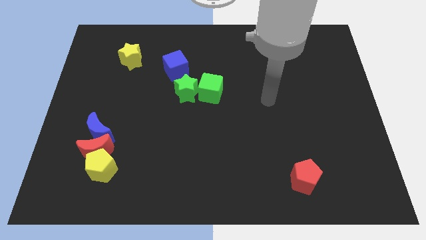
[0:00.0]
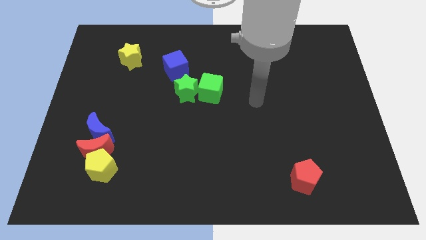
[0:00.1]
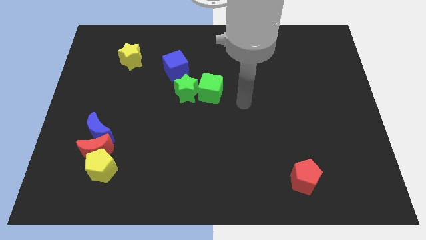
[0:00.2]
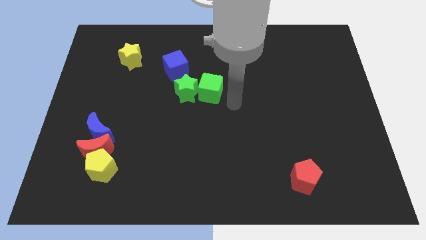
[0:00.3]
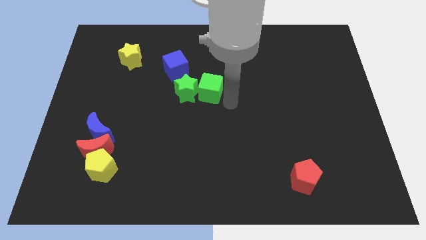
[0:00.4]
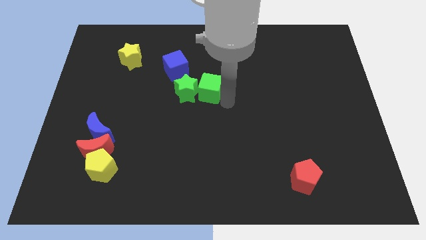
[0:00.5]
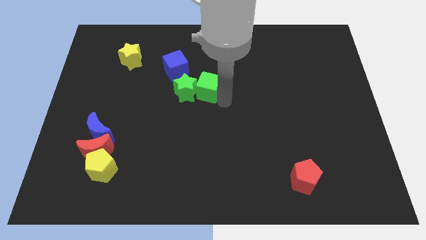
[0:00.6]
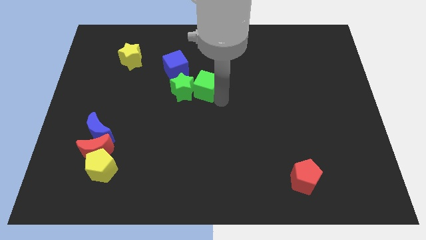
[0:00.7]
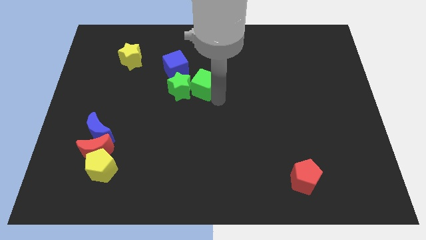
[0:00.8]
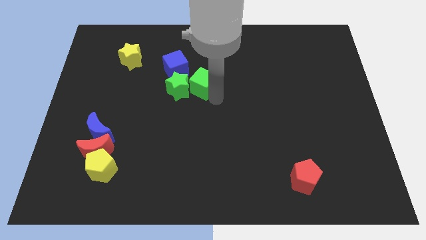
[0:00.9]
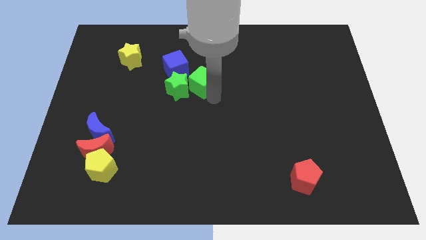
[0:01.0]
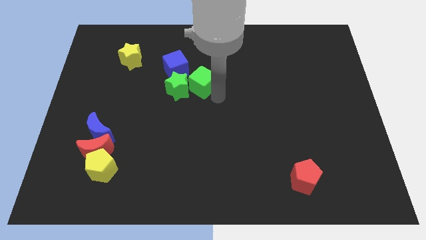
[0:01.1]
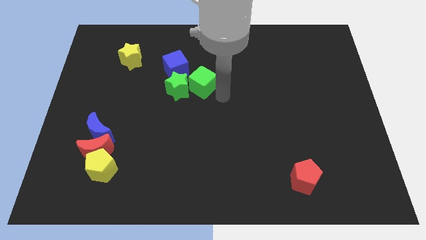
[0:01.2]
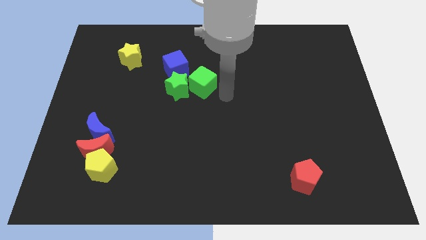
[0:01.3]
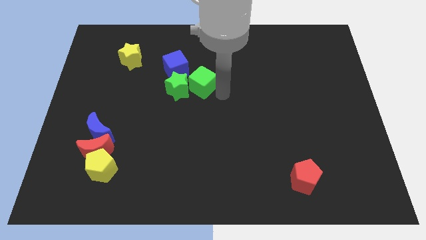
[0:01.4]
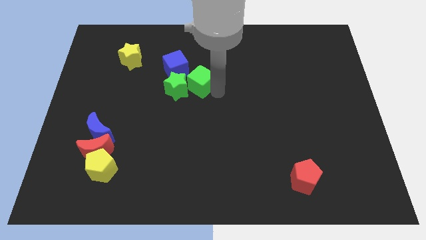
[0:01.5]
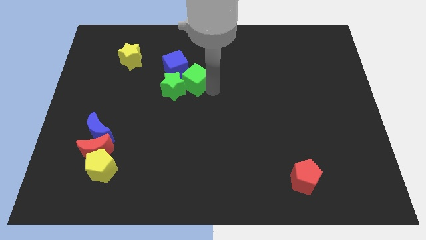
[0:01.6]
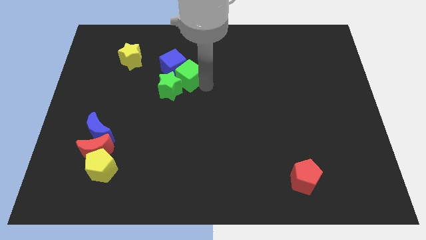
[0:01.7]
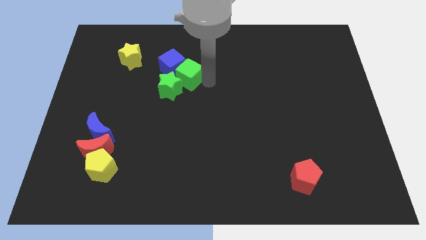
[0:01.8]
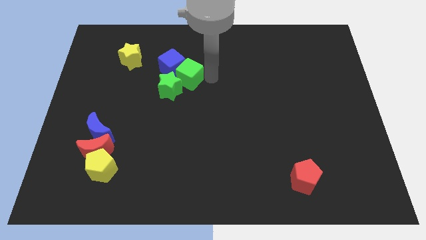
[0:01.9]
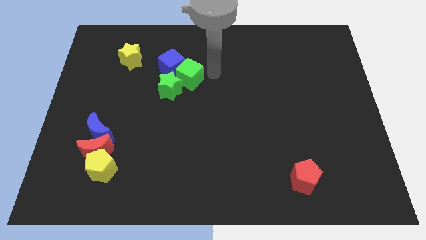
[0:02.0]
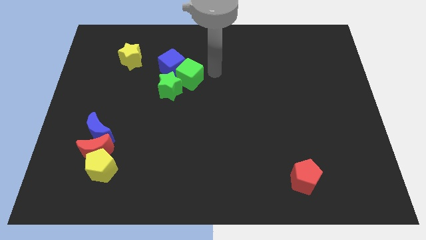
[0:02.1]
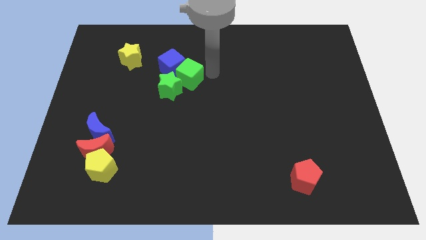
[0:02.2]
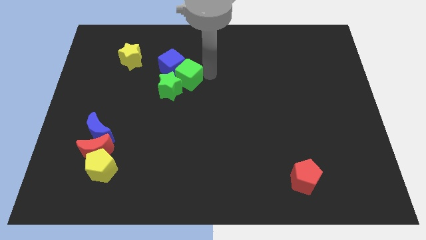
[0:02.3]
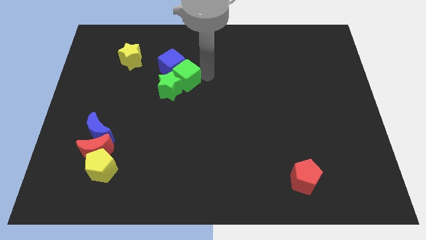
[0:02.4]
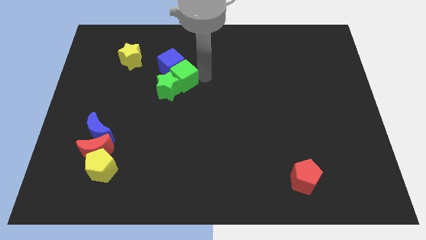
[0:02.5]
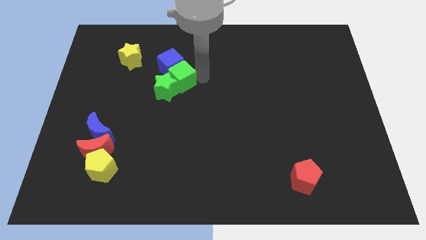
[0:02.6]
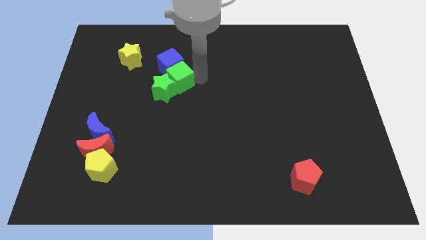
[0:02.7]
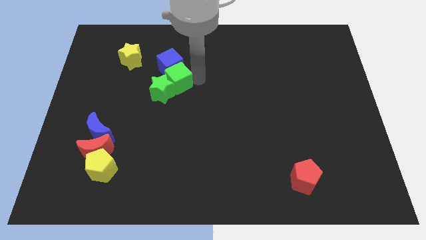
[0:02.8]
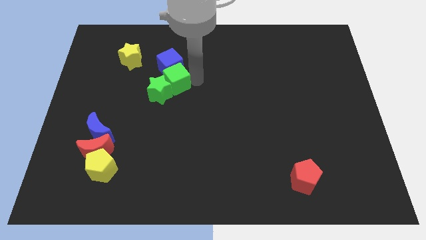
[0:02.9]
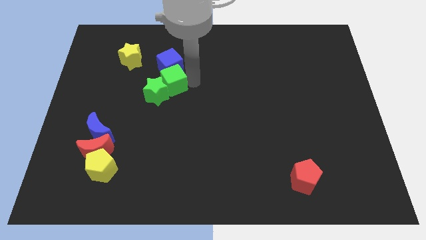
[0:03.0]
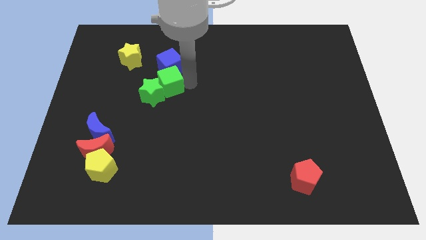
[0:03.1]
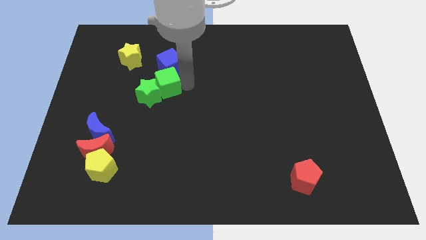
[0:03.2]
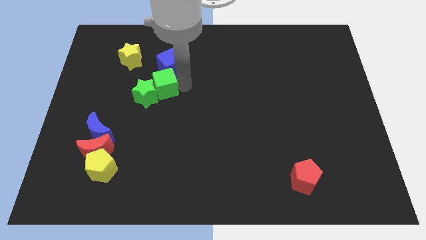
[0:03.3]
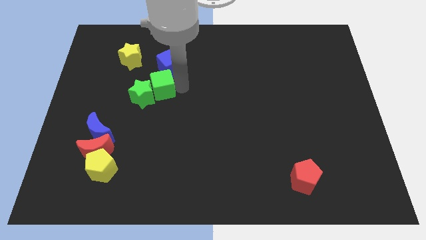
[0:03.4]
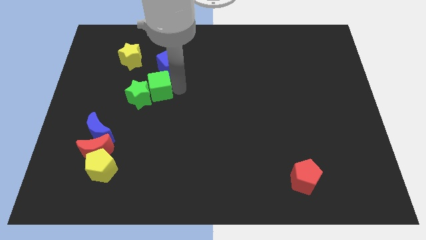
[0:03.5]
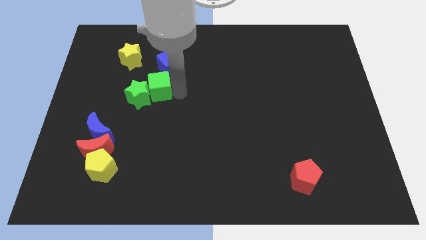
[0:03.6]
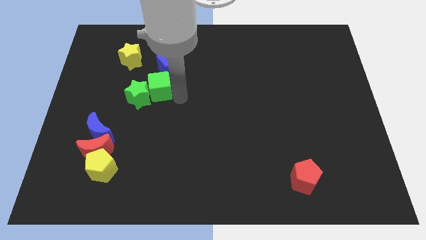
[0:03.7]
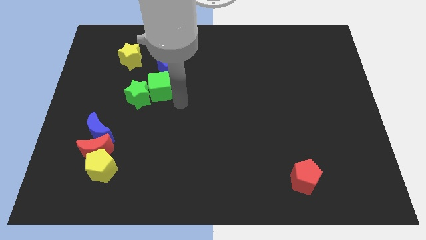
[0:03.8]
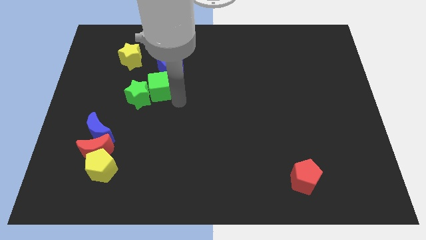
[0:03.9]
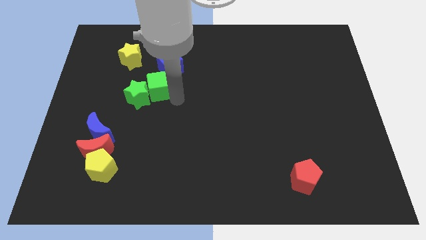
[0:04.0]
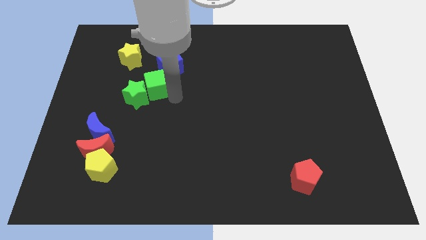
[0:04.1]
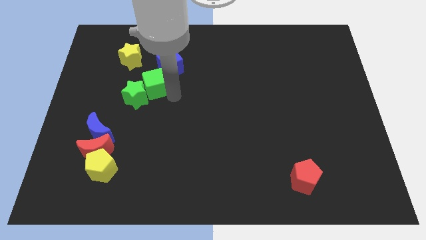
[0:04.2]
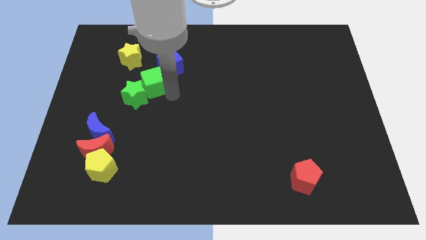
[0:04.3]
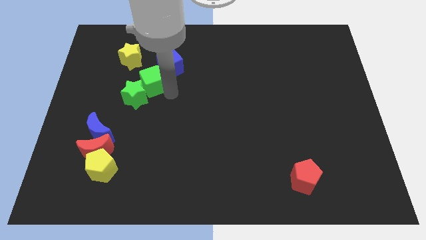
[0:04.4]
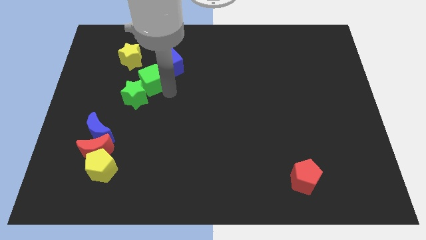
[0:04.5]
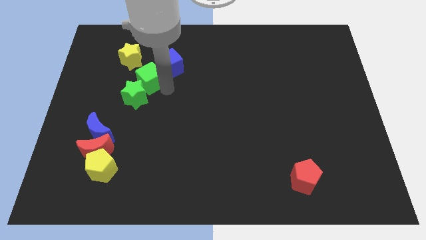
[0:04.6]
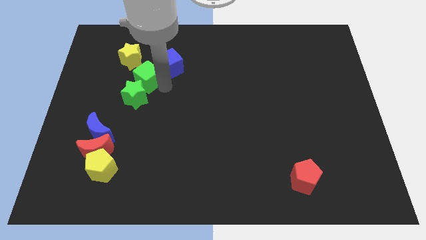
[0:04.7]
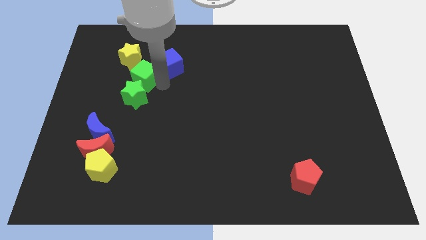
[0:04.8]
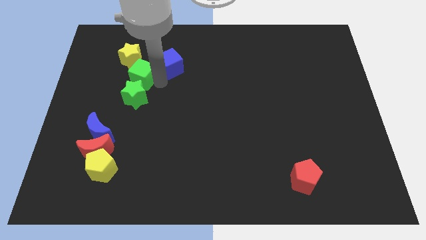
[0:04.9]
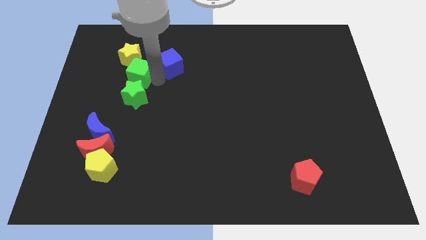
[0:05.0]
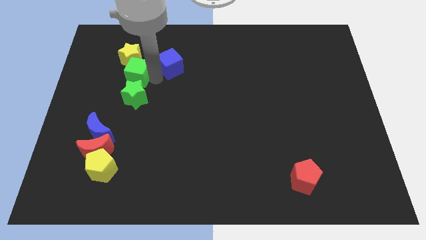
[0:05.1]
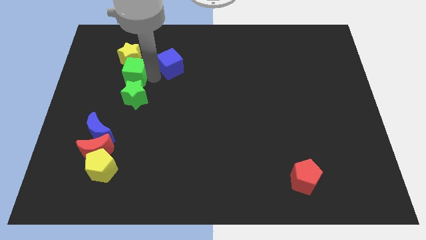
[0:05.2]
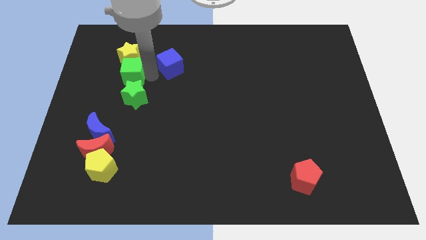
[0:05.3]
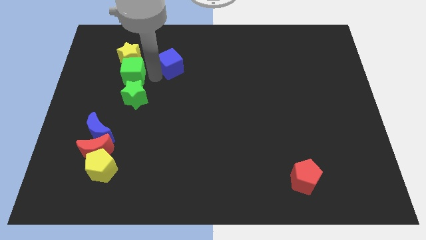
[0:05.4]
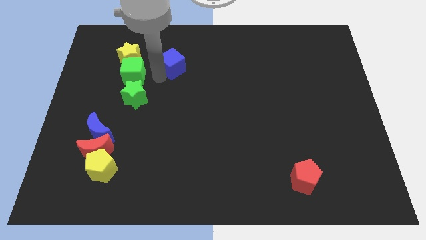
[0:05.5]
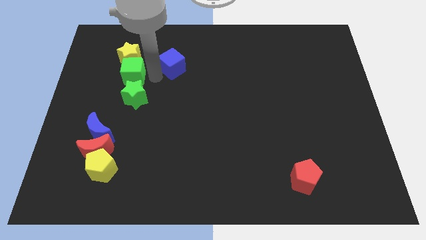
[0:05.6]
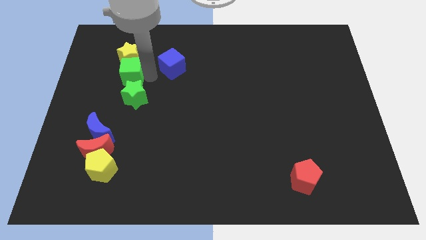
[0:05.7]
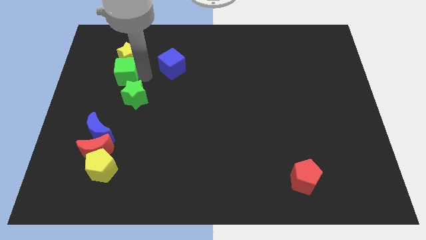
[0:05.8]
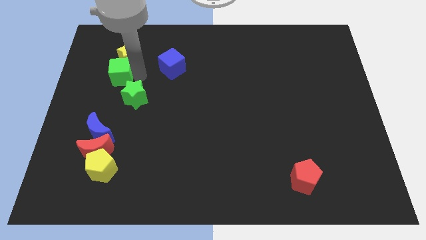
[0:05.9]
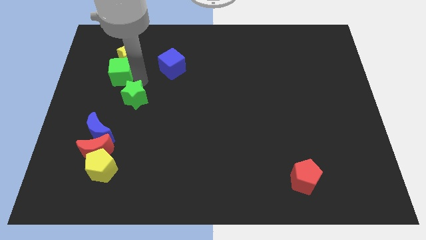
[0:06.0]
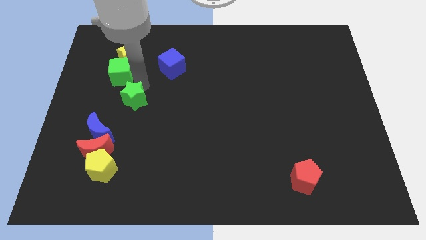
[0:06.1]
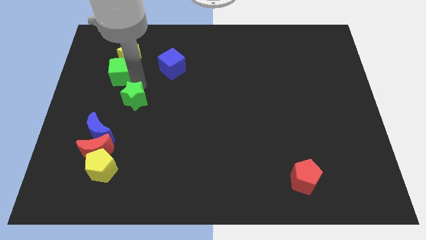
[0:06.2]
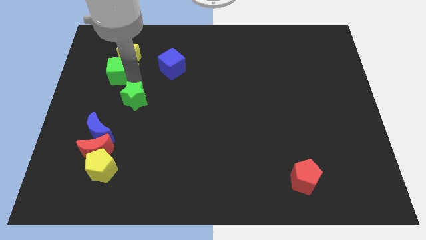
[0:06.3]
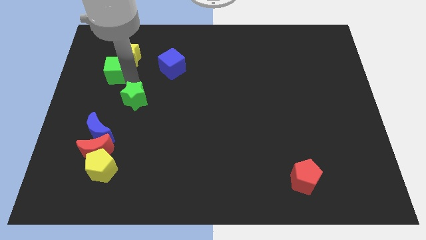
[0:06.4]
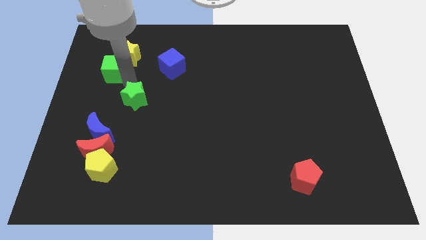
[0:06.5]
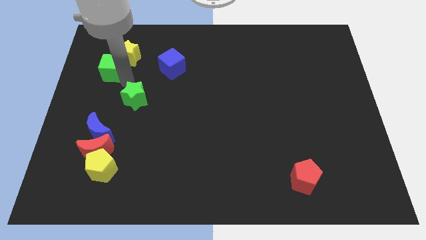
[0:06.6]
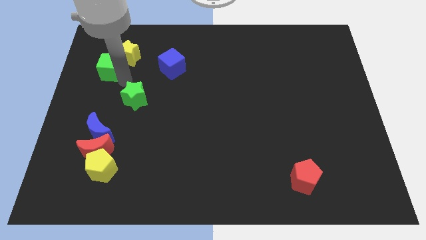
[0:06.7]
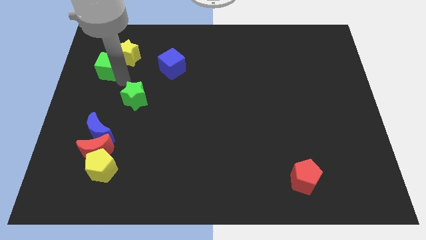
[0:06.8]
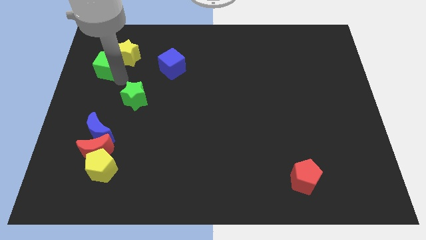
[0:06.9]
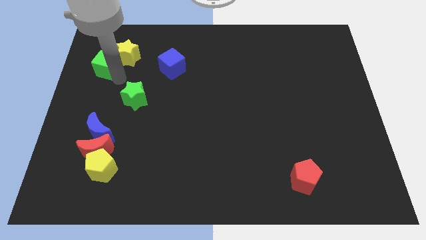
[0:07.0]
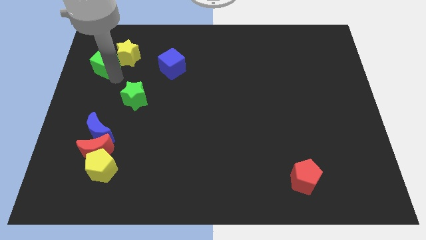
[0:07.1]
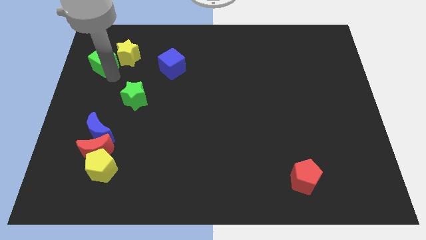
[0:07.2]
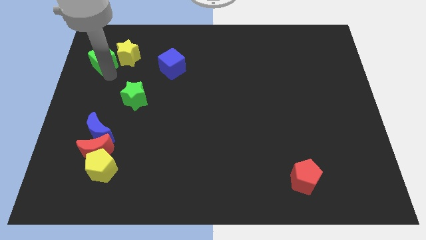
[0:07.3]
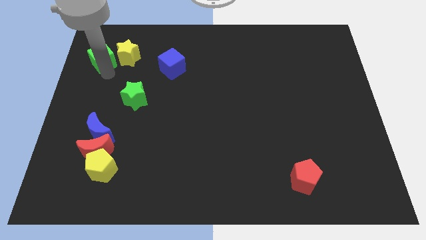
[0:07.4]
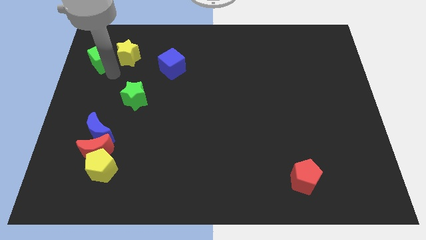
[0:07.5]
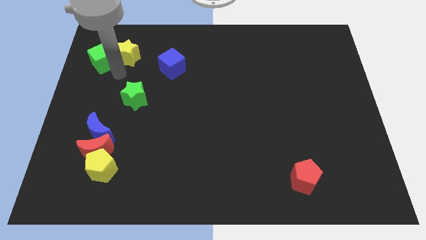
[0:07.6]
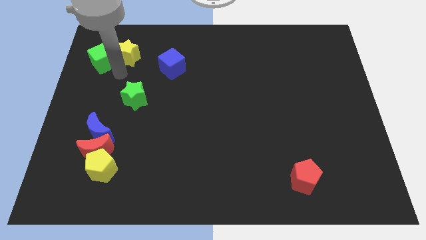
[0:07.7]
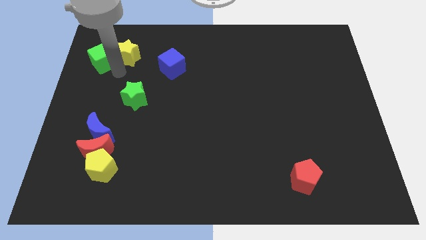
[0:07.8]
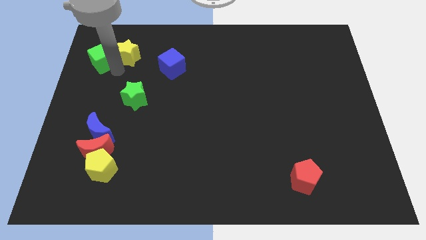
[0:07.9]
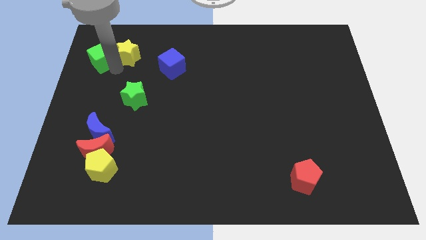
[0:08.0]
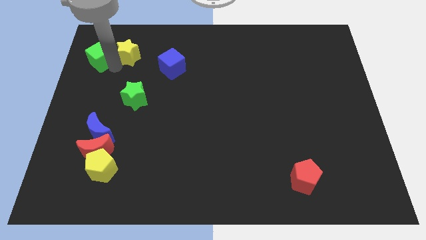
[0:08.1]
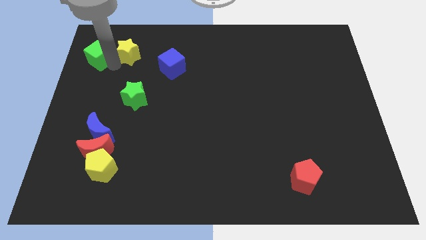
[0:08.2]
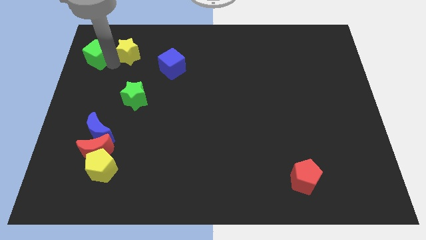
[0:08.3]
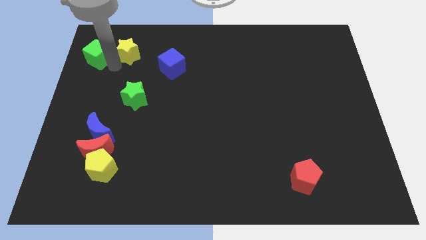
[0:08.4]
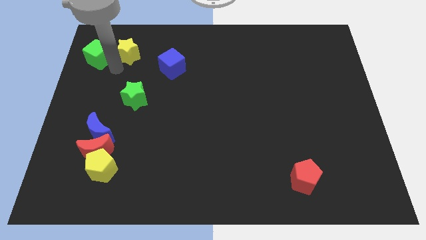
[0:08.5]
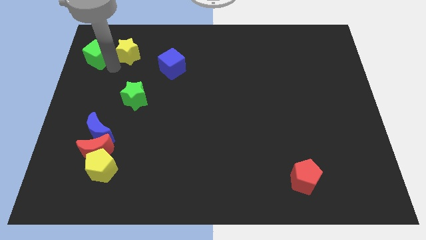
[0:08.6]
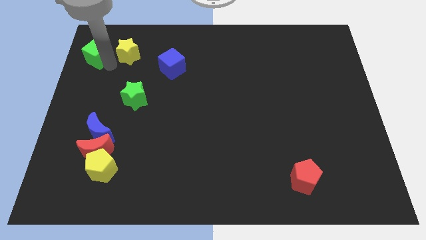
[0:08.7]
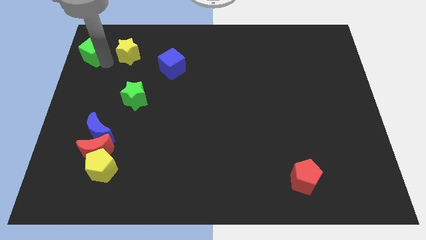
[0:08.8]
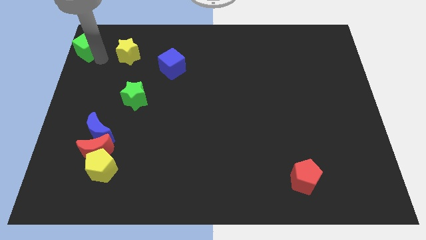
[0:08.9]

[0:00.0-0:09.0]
put the green cube to the top left corner
